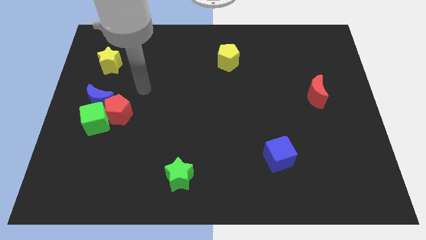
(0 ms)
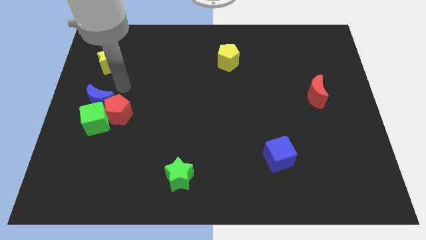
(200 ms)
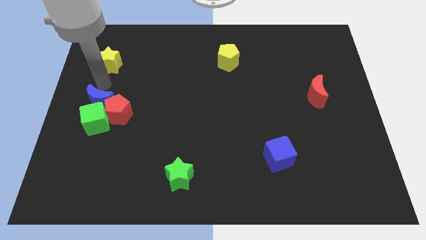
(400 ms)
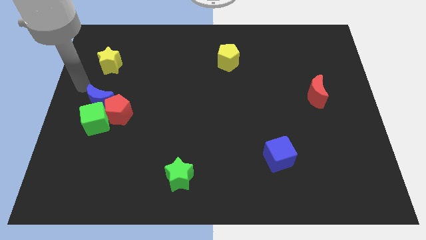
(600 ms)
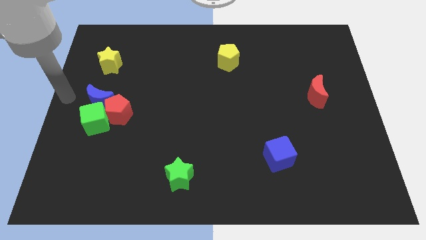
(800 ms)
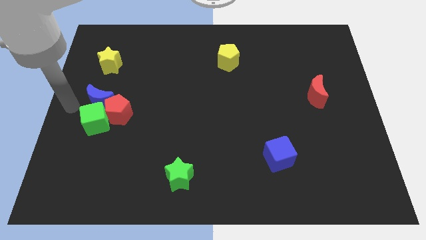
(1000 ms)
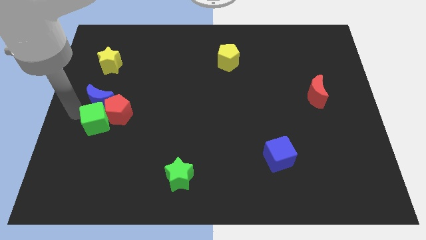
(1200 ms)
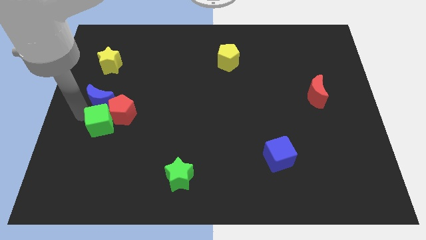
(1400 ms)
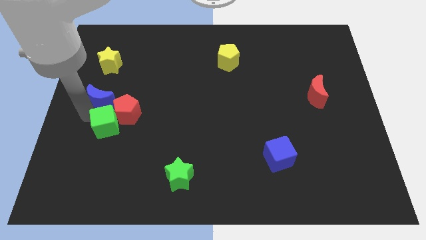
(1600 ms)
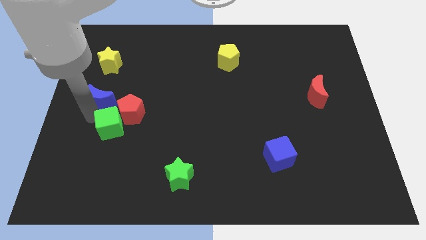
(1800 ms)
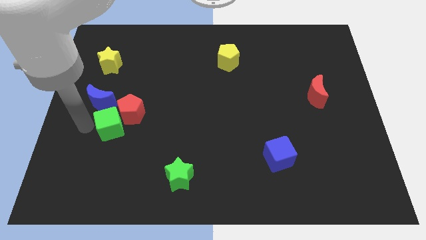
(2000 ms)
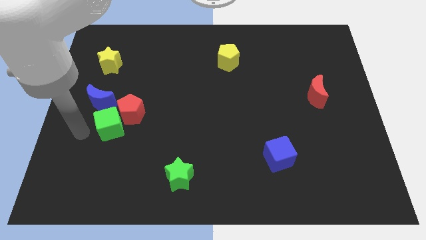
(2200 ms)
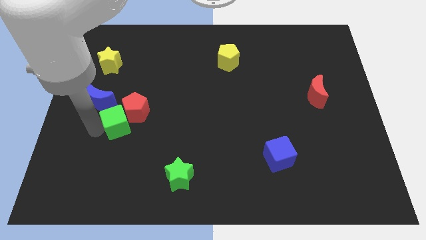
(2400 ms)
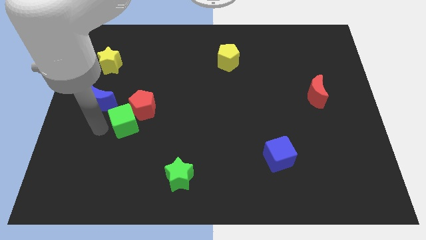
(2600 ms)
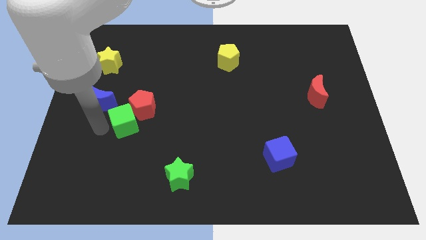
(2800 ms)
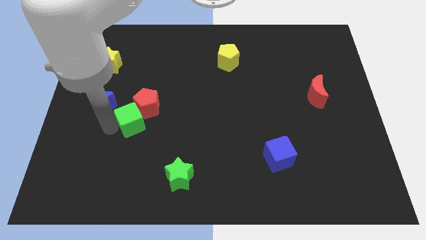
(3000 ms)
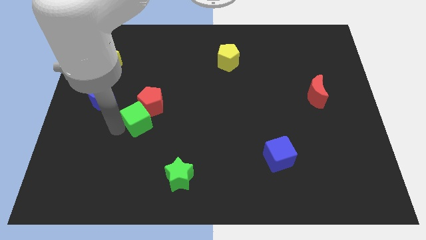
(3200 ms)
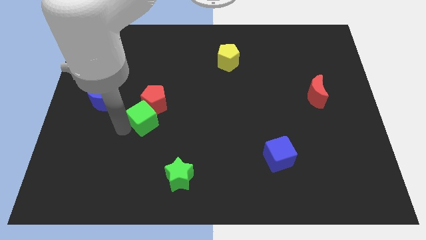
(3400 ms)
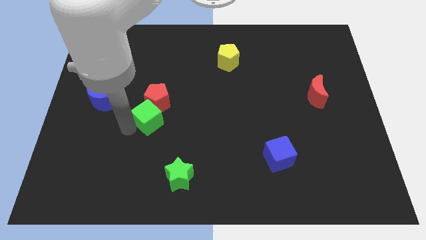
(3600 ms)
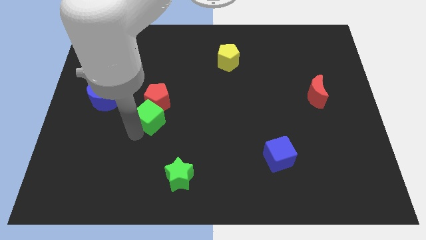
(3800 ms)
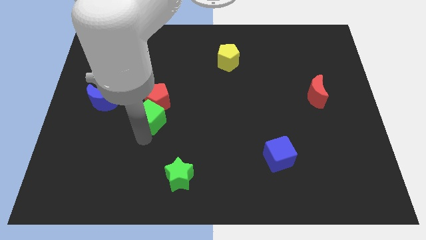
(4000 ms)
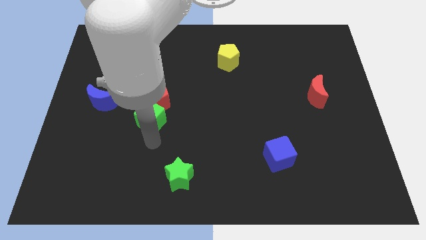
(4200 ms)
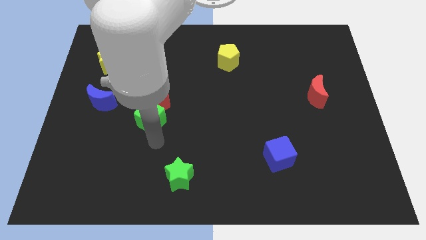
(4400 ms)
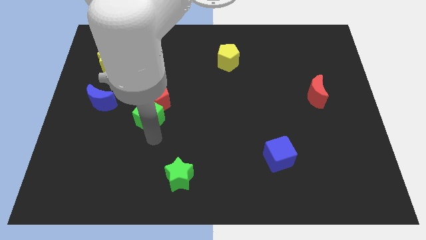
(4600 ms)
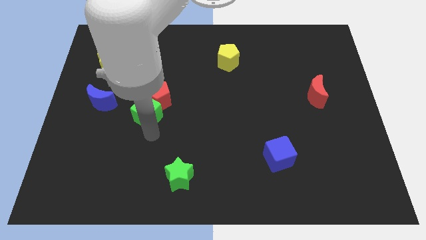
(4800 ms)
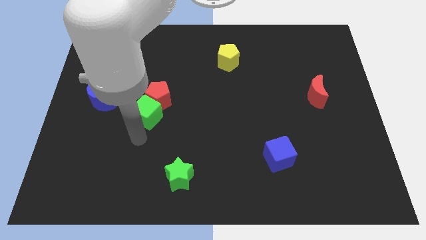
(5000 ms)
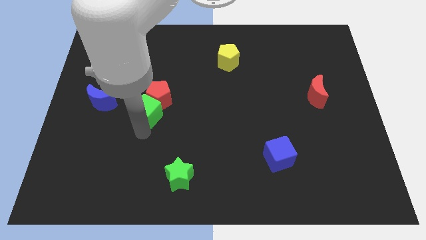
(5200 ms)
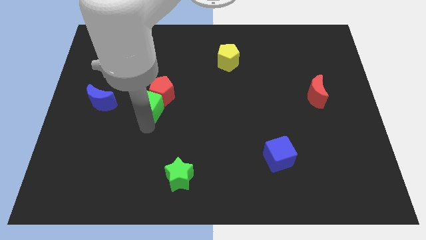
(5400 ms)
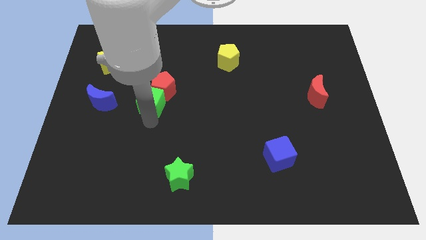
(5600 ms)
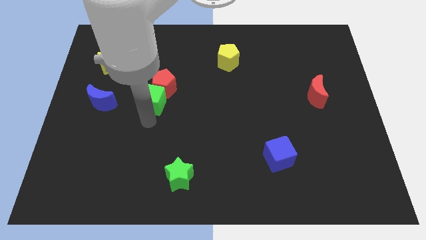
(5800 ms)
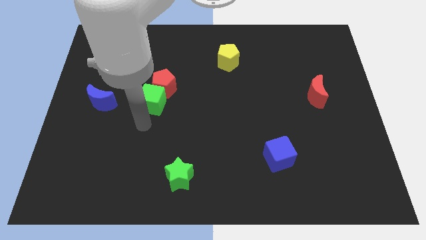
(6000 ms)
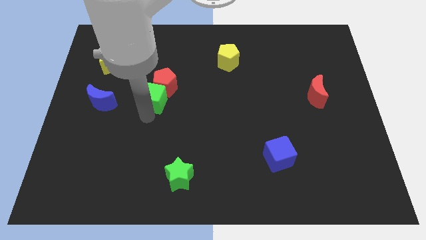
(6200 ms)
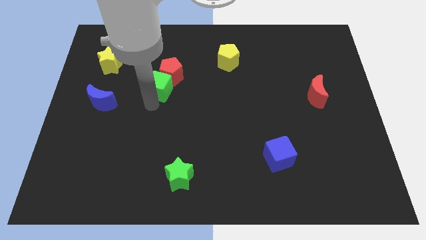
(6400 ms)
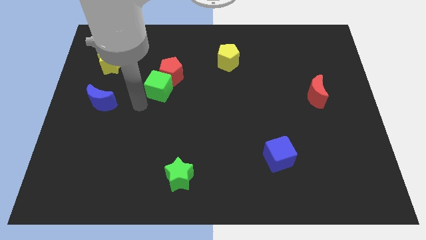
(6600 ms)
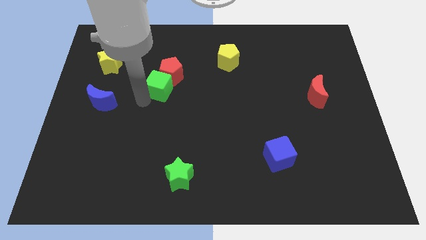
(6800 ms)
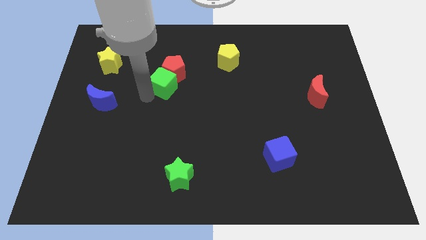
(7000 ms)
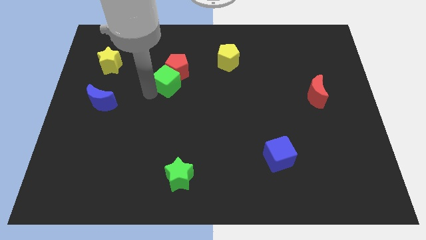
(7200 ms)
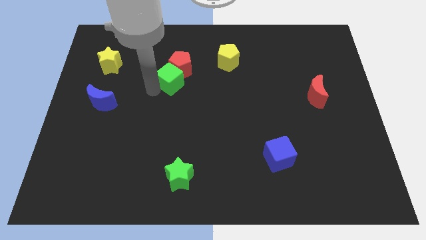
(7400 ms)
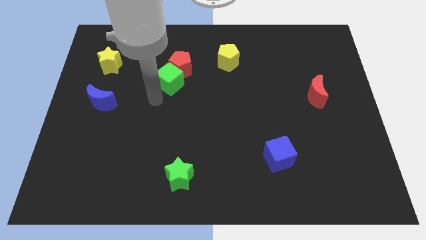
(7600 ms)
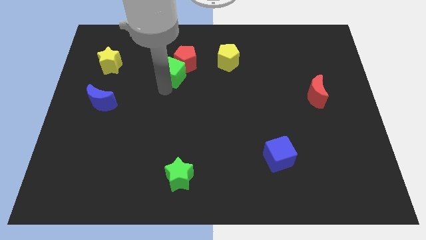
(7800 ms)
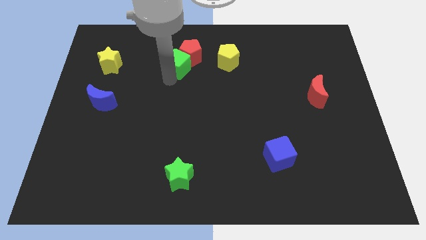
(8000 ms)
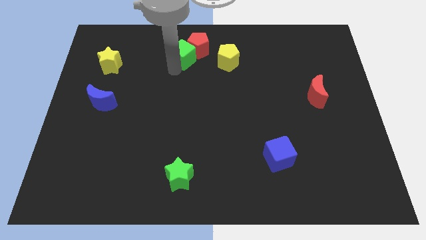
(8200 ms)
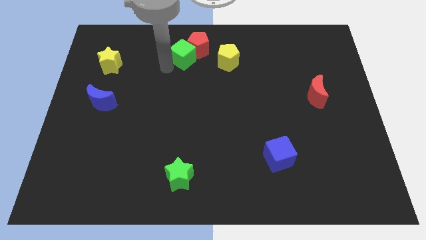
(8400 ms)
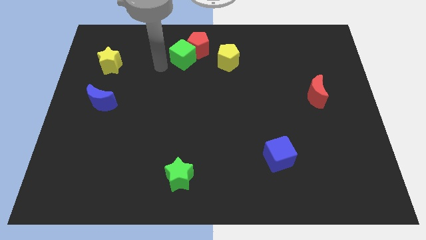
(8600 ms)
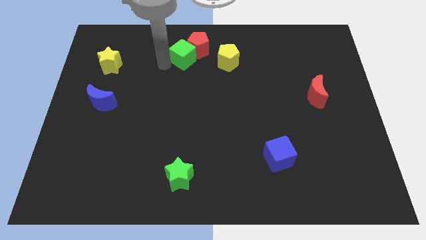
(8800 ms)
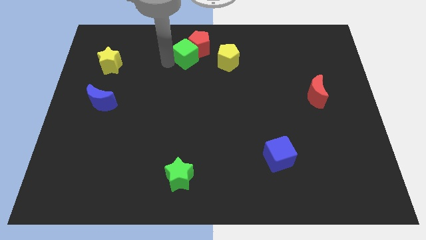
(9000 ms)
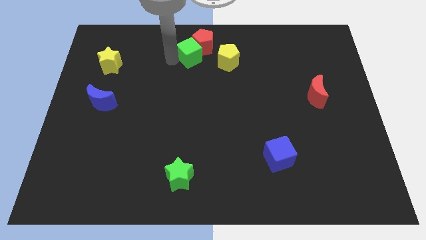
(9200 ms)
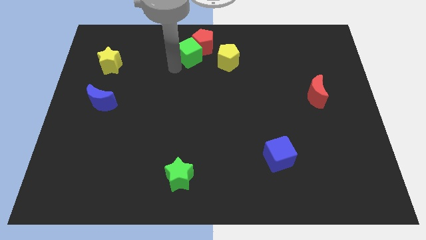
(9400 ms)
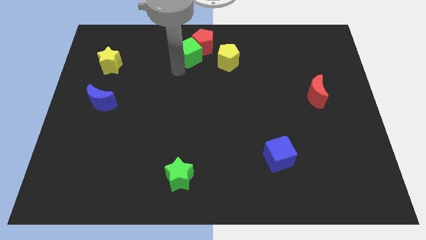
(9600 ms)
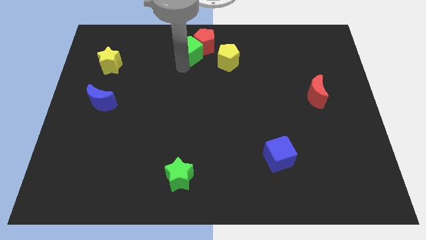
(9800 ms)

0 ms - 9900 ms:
push the green cube to the towards your base

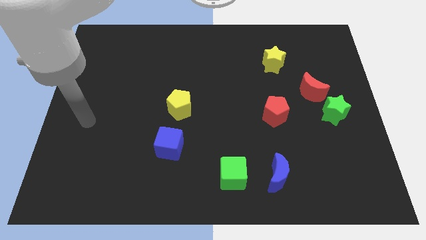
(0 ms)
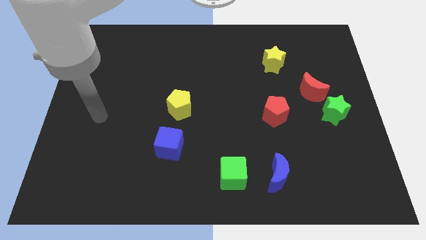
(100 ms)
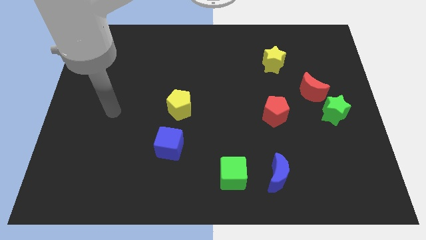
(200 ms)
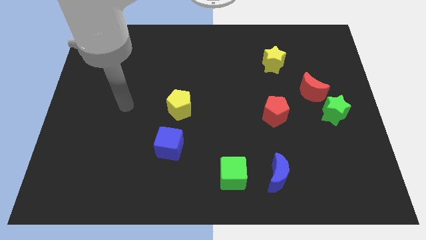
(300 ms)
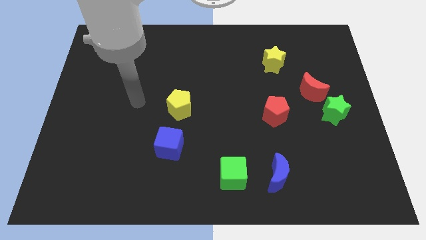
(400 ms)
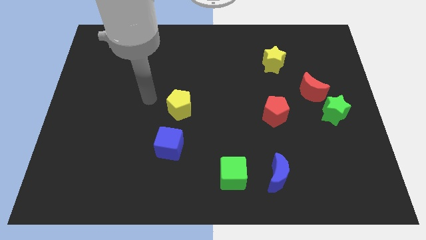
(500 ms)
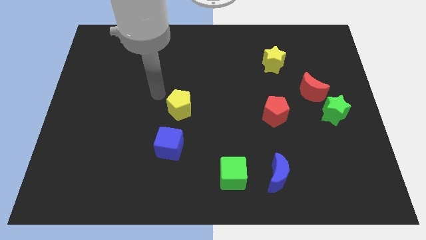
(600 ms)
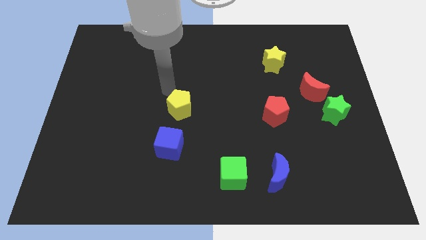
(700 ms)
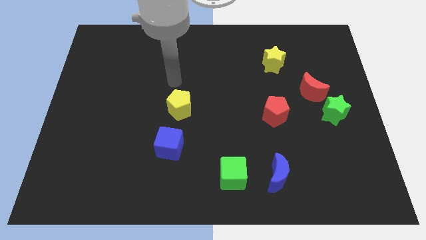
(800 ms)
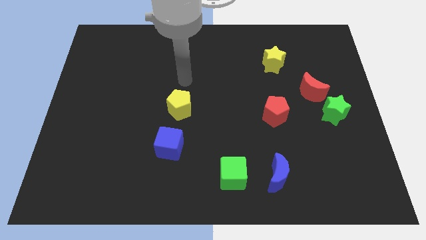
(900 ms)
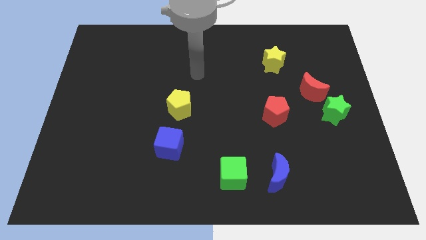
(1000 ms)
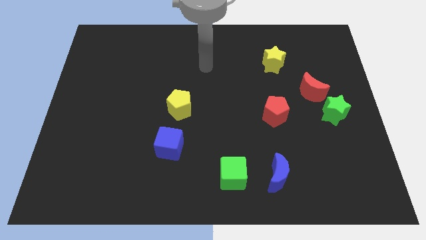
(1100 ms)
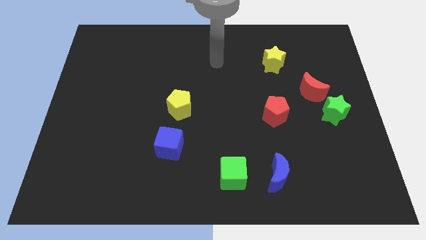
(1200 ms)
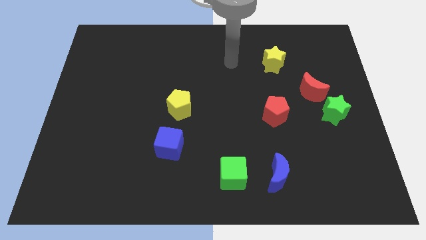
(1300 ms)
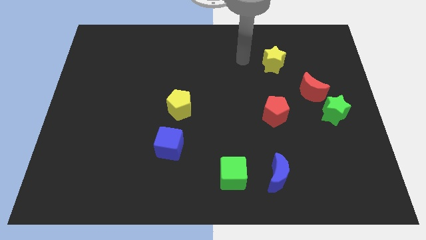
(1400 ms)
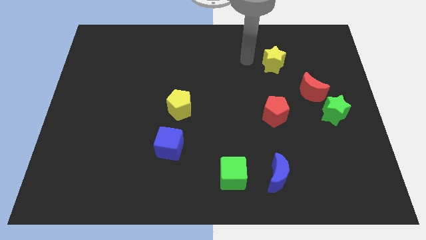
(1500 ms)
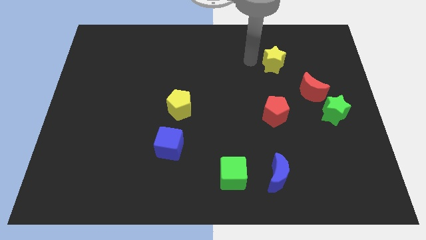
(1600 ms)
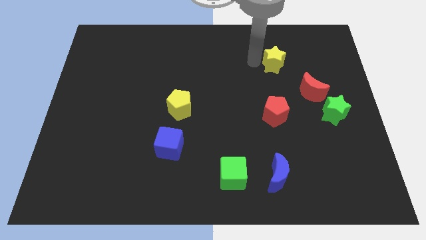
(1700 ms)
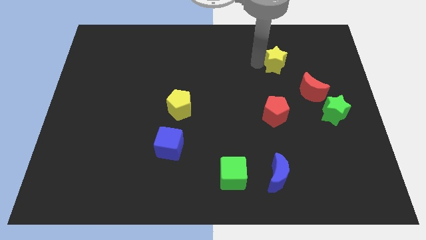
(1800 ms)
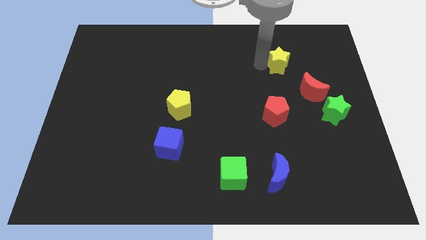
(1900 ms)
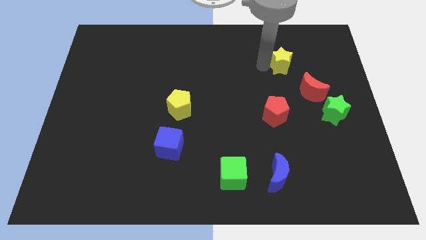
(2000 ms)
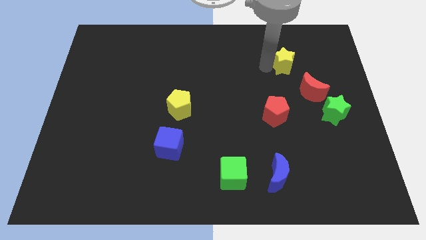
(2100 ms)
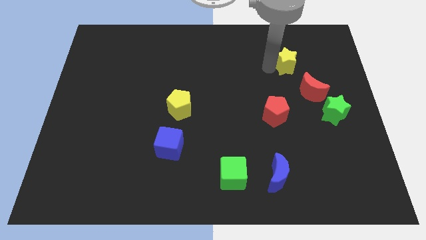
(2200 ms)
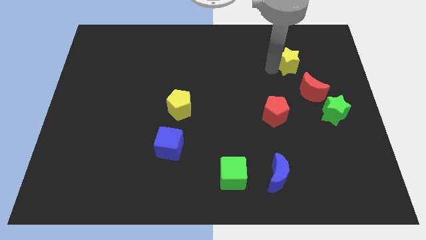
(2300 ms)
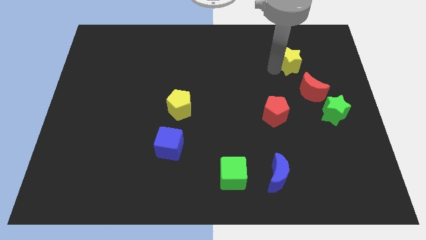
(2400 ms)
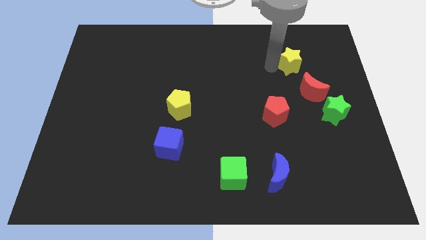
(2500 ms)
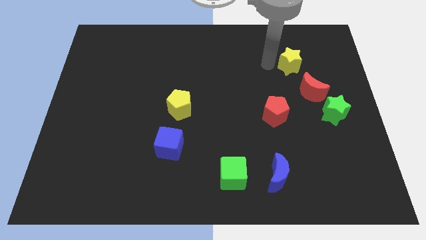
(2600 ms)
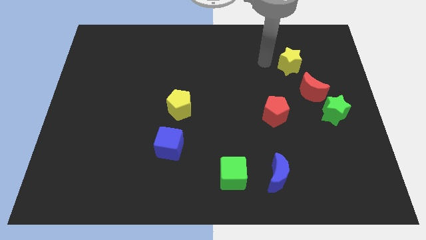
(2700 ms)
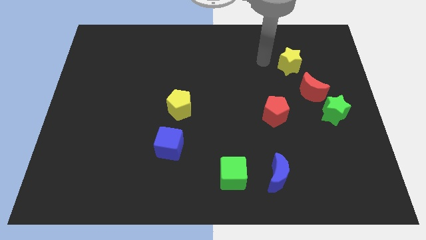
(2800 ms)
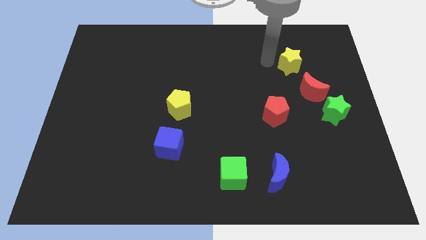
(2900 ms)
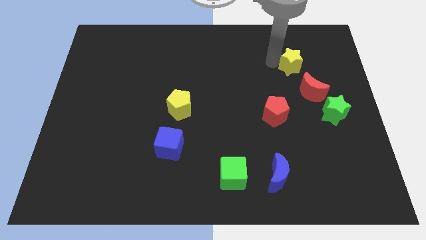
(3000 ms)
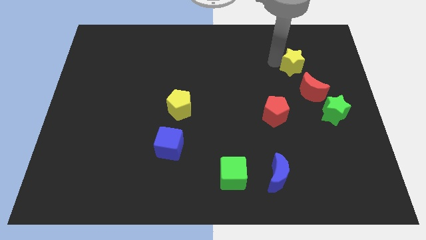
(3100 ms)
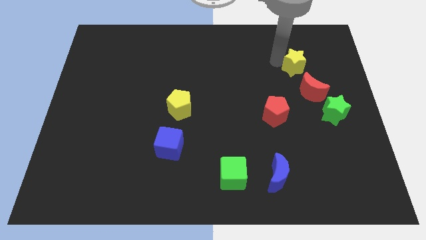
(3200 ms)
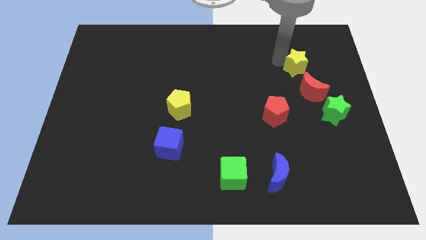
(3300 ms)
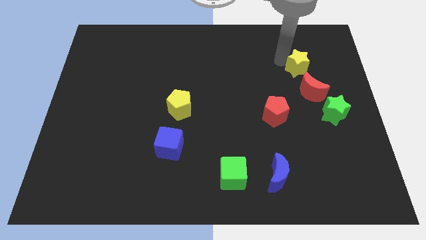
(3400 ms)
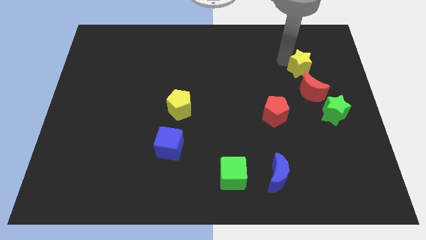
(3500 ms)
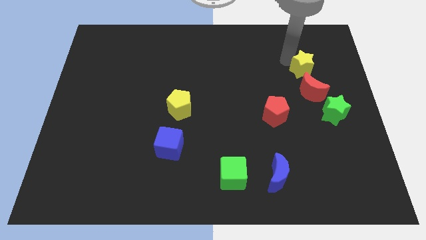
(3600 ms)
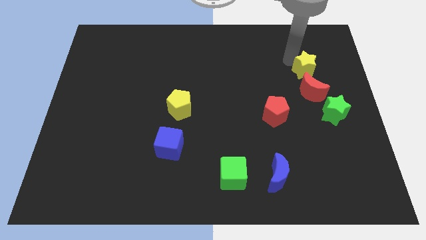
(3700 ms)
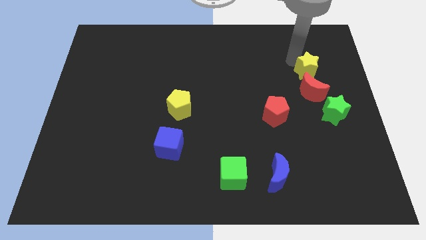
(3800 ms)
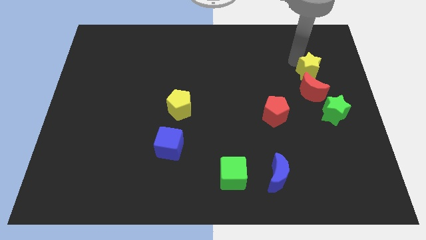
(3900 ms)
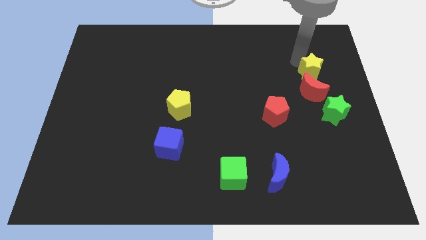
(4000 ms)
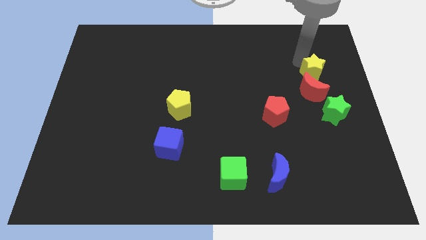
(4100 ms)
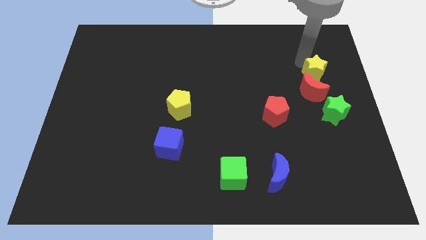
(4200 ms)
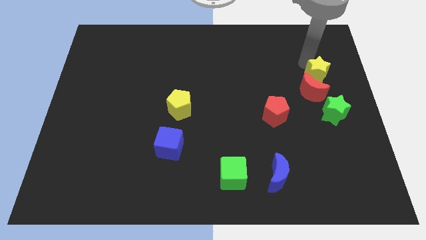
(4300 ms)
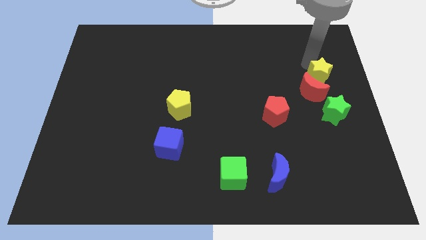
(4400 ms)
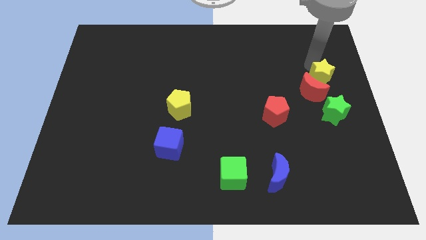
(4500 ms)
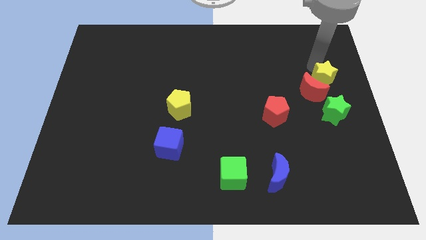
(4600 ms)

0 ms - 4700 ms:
slide the yellow star to the center right
